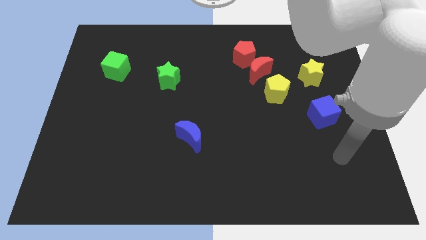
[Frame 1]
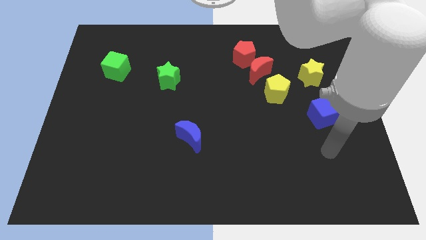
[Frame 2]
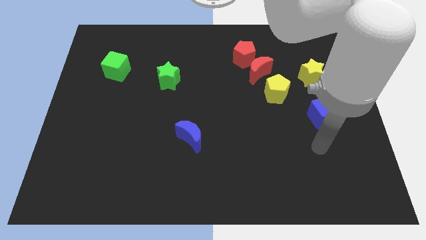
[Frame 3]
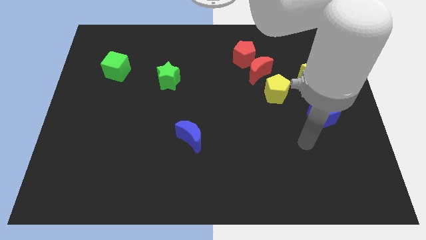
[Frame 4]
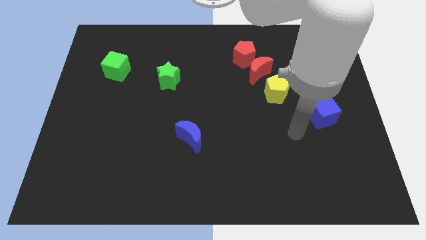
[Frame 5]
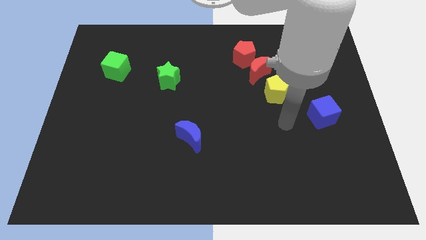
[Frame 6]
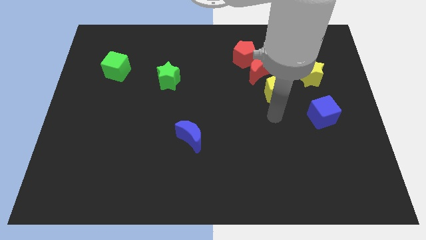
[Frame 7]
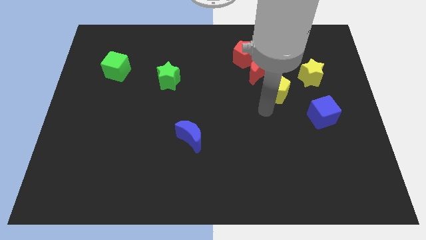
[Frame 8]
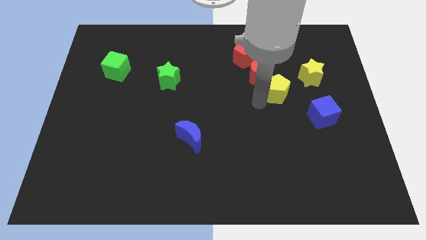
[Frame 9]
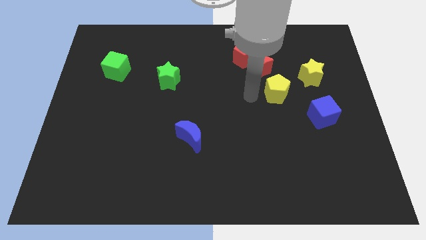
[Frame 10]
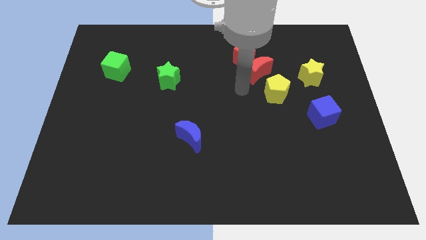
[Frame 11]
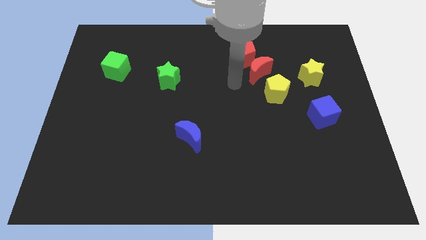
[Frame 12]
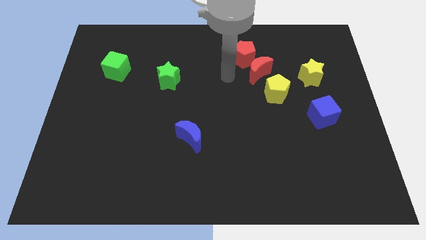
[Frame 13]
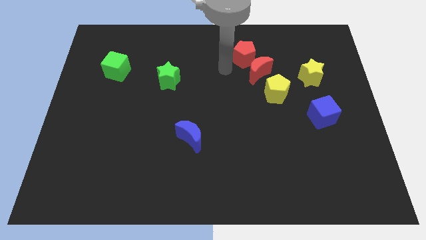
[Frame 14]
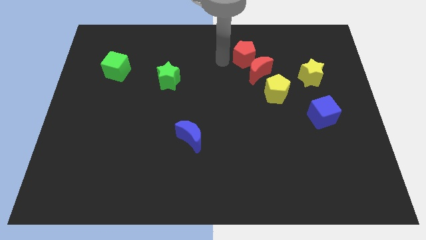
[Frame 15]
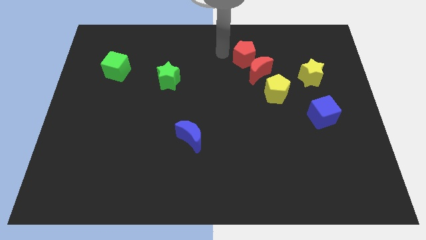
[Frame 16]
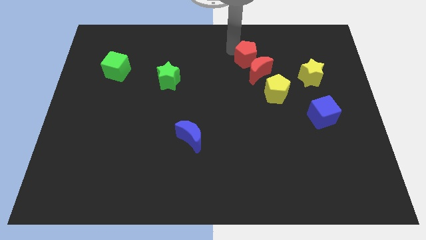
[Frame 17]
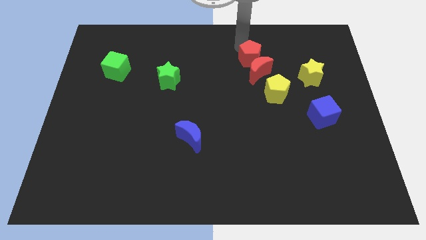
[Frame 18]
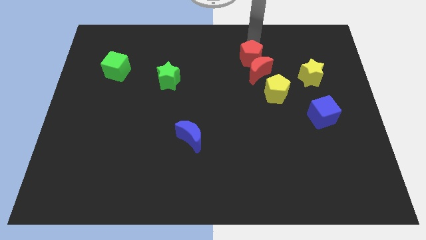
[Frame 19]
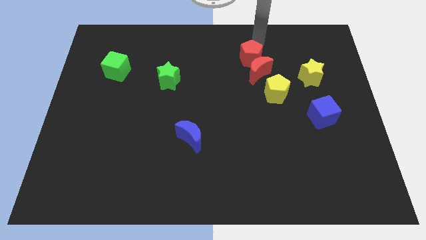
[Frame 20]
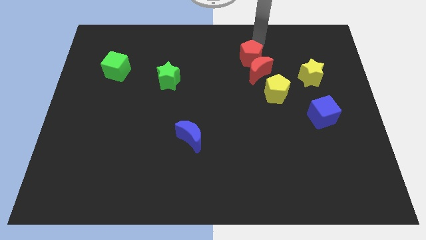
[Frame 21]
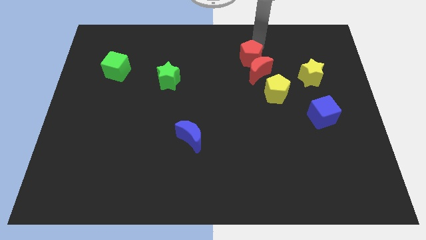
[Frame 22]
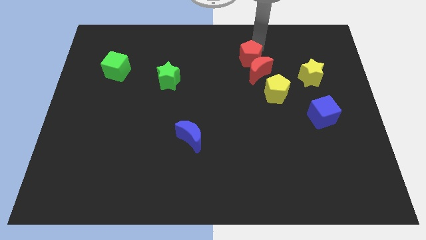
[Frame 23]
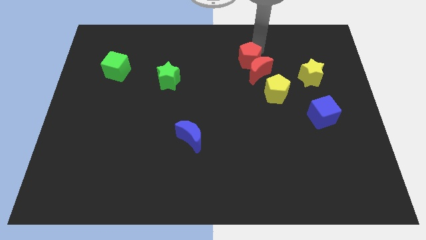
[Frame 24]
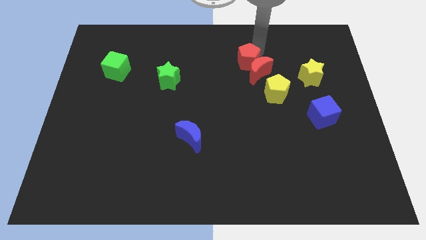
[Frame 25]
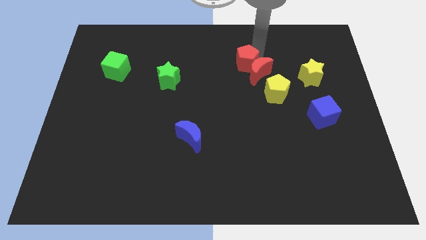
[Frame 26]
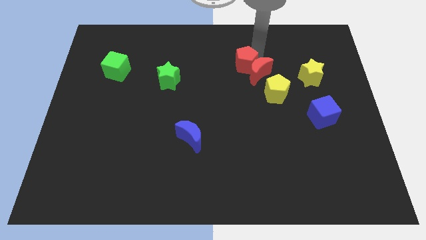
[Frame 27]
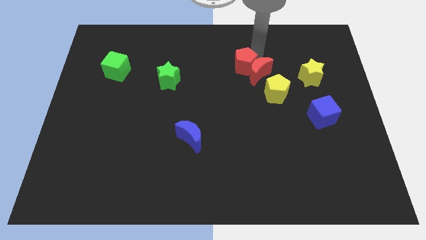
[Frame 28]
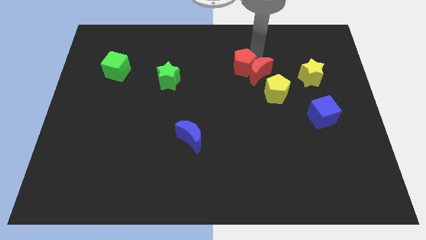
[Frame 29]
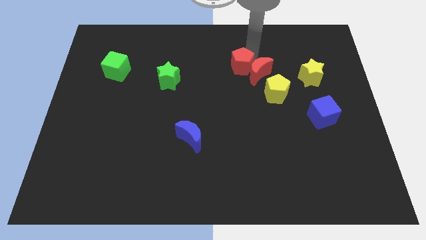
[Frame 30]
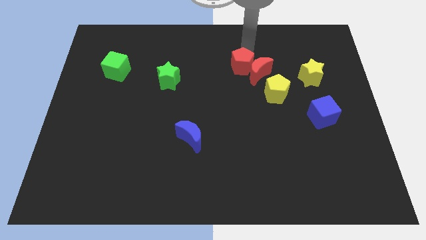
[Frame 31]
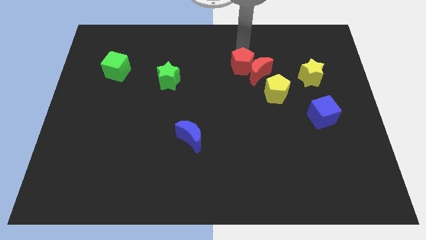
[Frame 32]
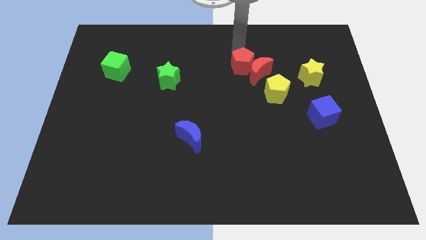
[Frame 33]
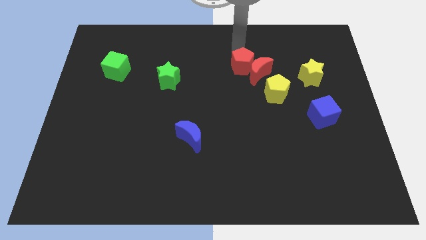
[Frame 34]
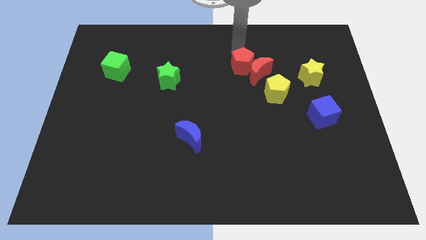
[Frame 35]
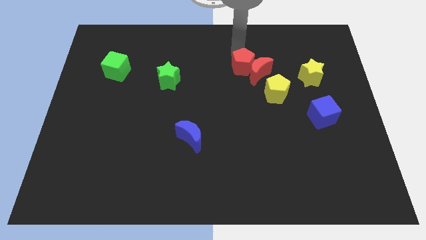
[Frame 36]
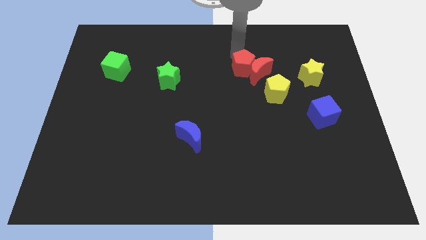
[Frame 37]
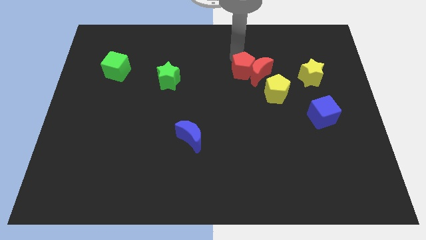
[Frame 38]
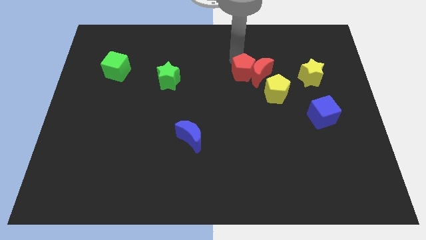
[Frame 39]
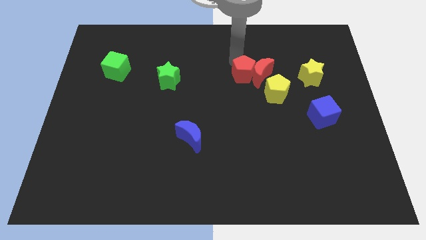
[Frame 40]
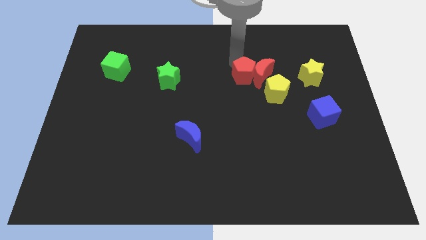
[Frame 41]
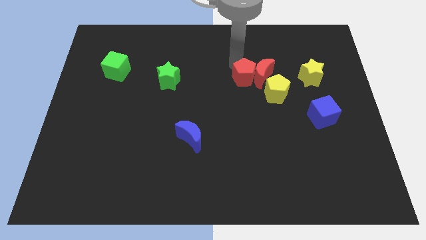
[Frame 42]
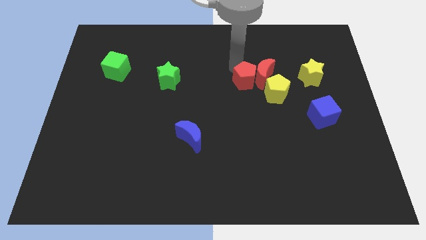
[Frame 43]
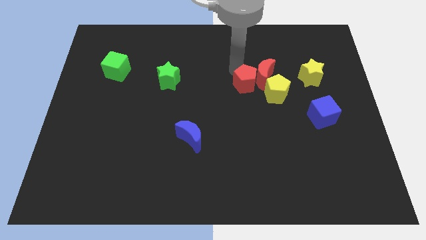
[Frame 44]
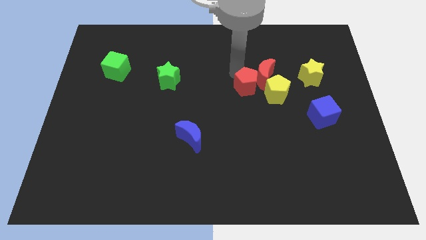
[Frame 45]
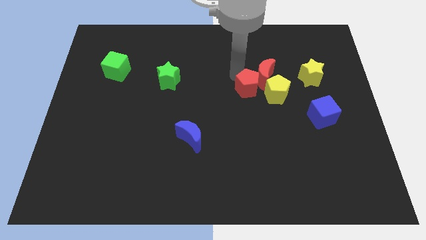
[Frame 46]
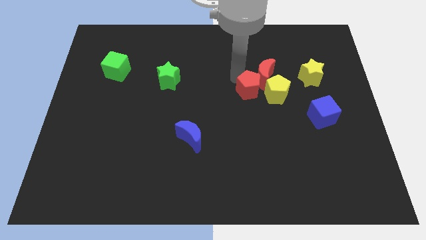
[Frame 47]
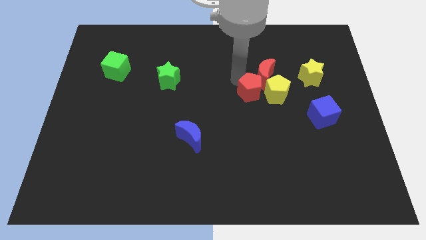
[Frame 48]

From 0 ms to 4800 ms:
slide the red pentagon to the bottom left of the yellow pentagon

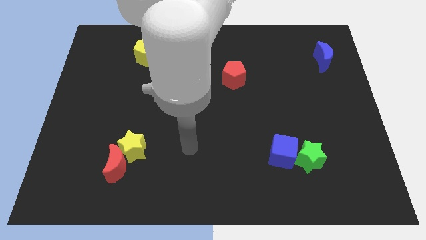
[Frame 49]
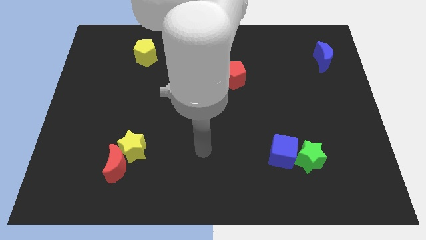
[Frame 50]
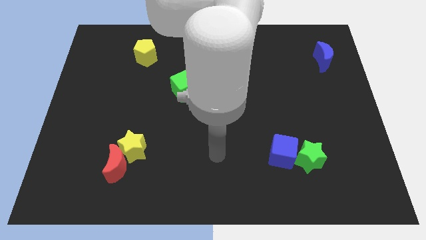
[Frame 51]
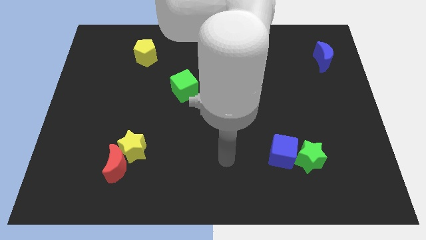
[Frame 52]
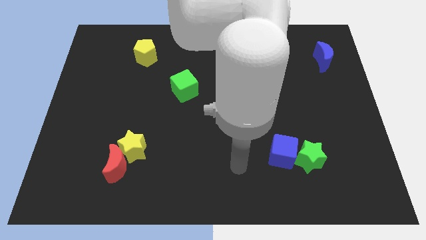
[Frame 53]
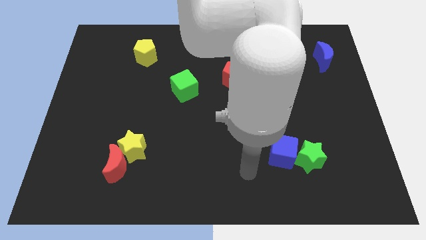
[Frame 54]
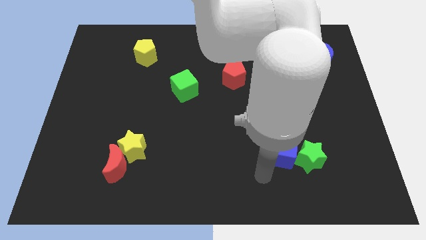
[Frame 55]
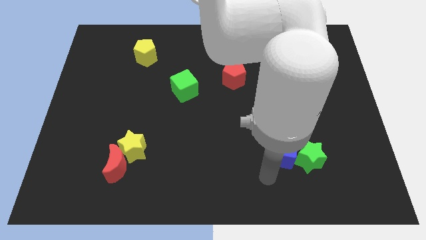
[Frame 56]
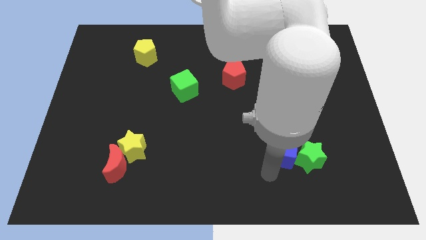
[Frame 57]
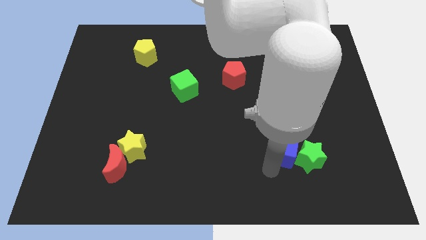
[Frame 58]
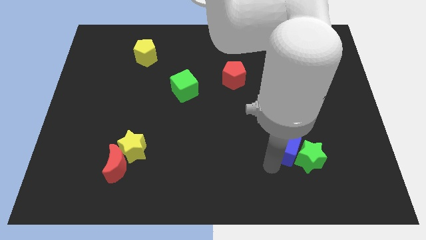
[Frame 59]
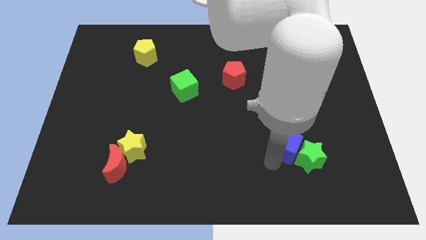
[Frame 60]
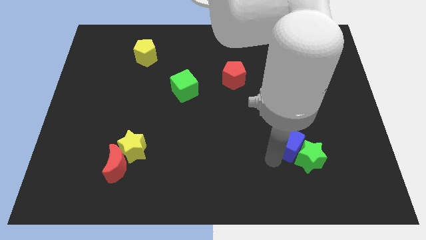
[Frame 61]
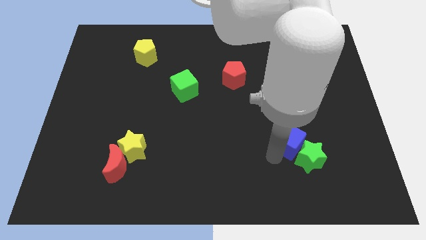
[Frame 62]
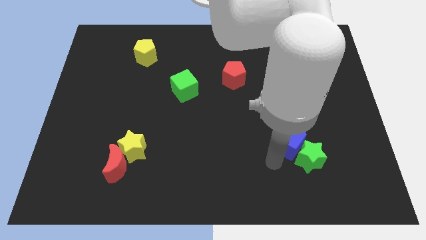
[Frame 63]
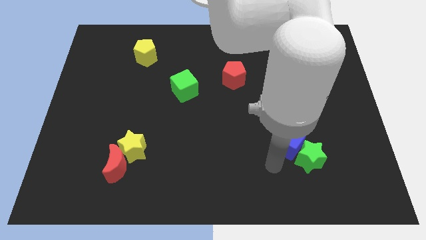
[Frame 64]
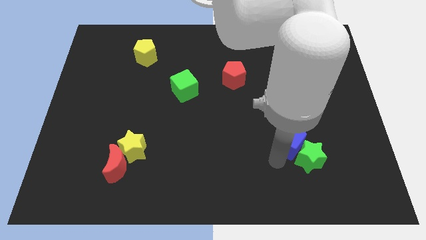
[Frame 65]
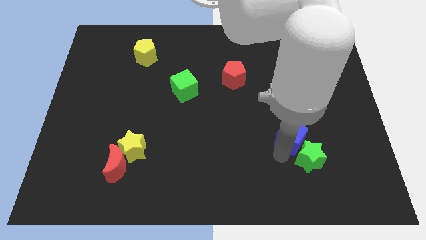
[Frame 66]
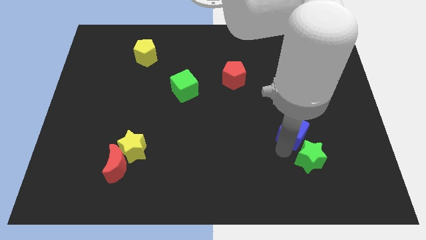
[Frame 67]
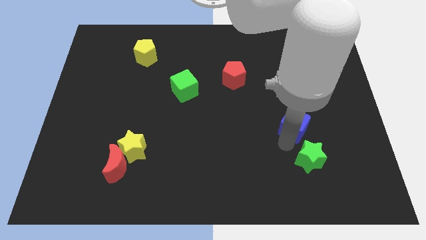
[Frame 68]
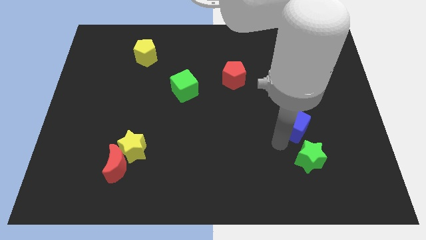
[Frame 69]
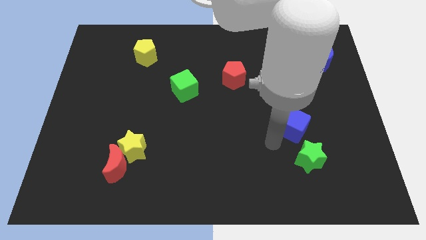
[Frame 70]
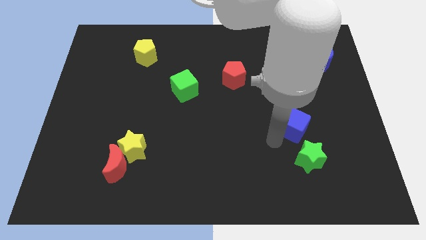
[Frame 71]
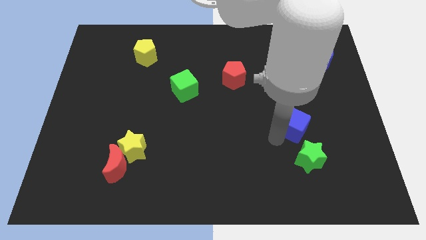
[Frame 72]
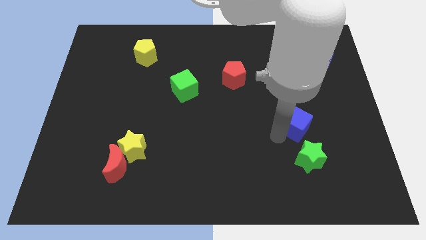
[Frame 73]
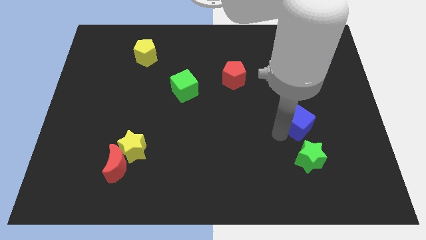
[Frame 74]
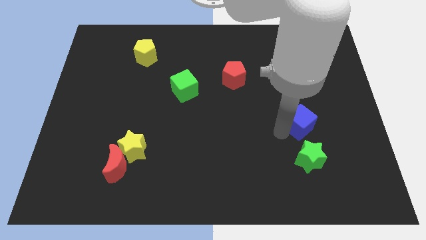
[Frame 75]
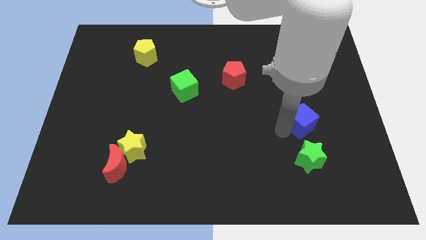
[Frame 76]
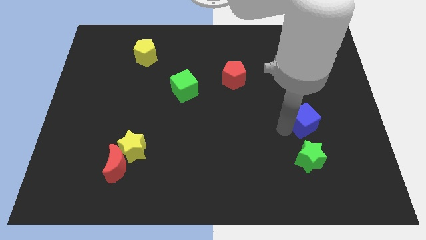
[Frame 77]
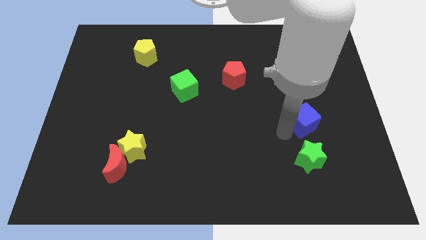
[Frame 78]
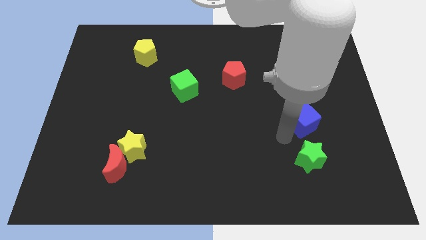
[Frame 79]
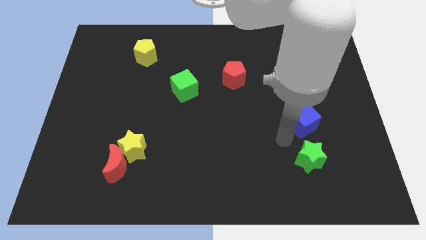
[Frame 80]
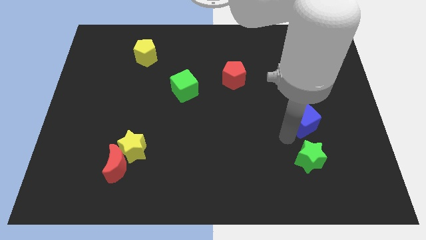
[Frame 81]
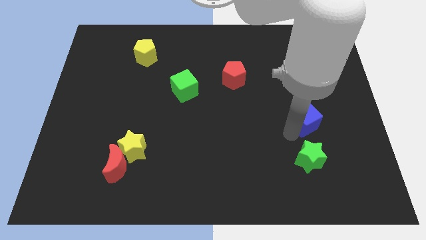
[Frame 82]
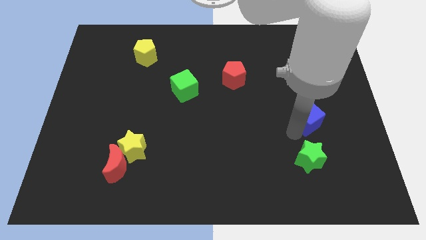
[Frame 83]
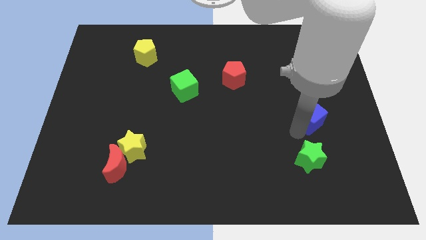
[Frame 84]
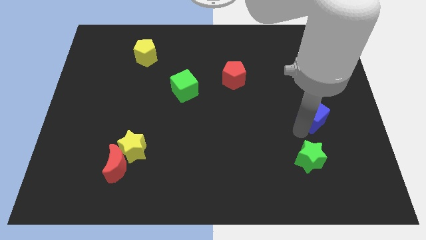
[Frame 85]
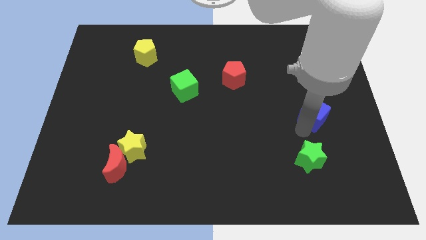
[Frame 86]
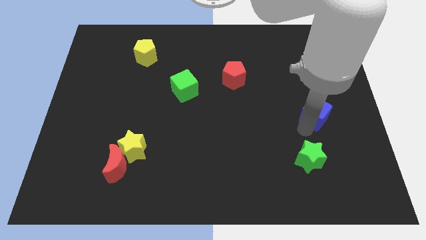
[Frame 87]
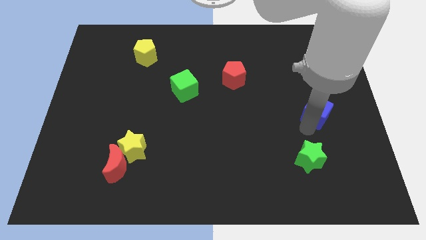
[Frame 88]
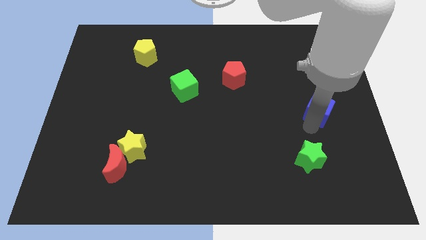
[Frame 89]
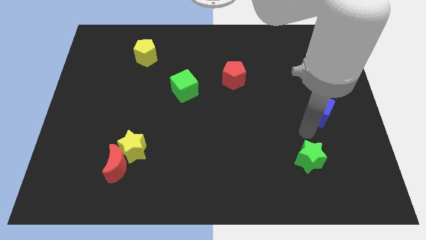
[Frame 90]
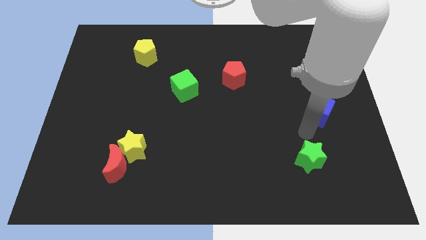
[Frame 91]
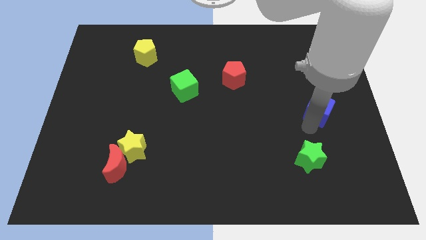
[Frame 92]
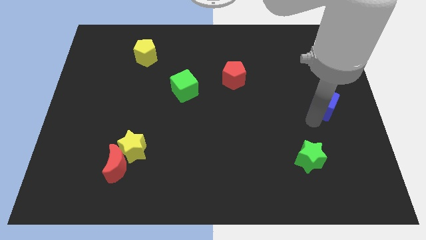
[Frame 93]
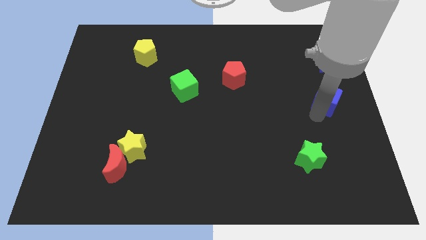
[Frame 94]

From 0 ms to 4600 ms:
push the blue cube to the bottom side of the blue moon
